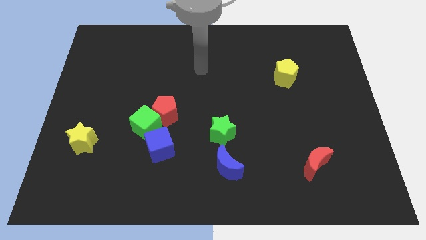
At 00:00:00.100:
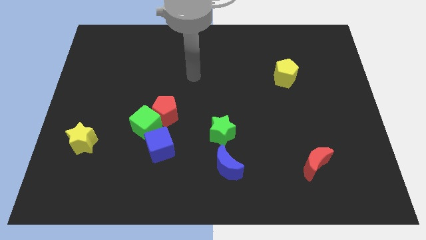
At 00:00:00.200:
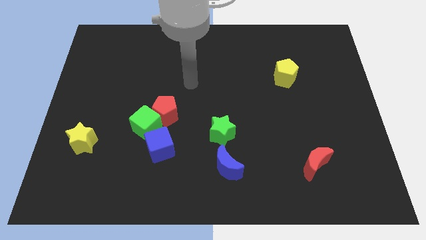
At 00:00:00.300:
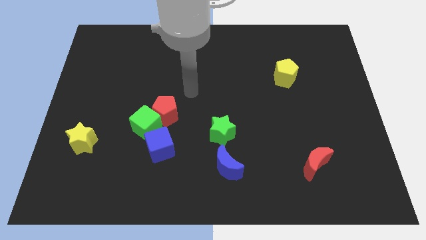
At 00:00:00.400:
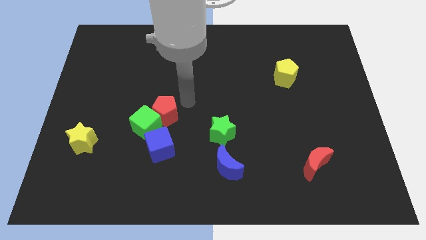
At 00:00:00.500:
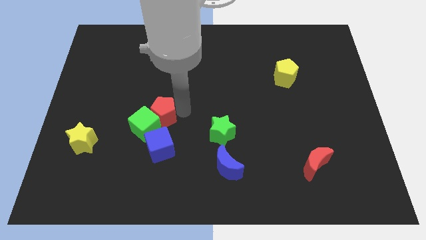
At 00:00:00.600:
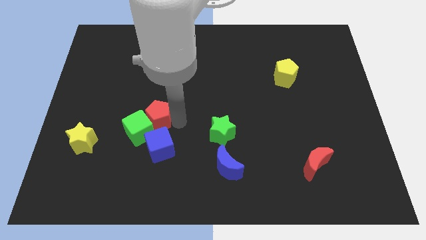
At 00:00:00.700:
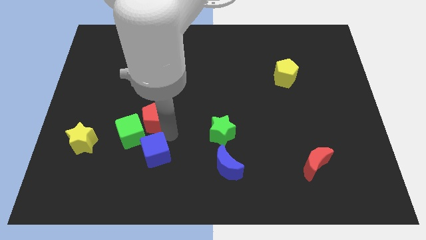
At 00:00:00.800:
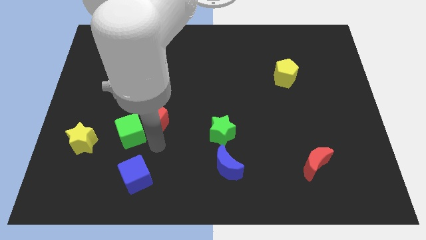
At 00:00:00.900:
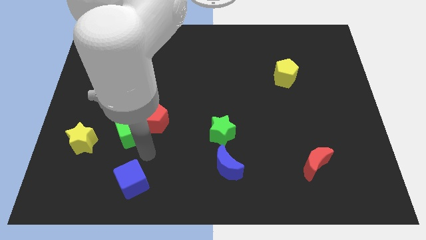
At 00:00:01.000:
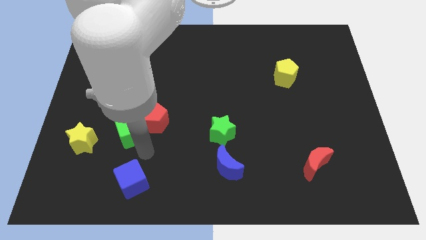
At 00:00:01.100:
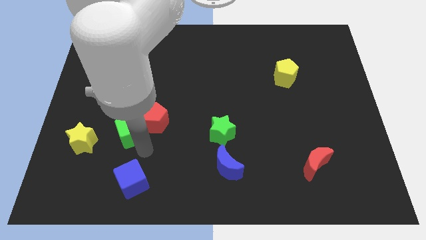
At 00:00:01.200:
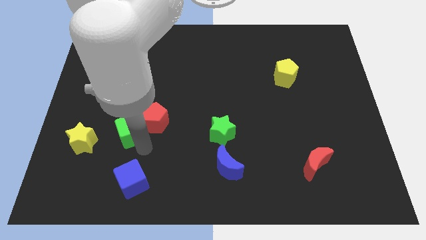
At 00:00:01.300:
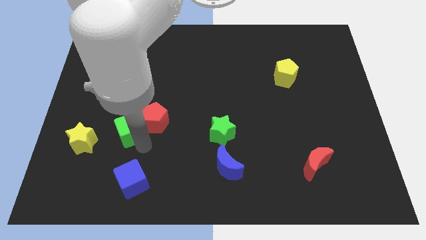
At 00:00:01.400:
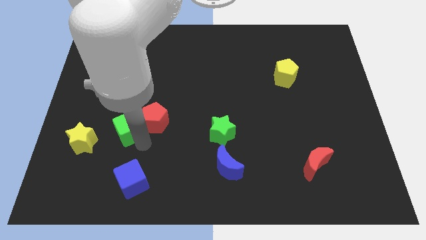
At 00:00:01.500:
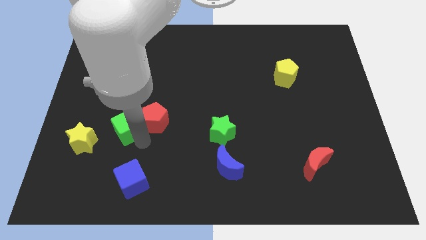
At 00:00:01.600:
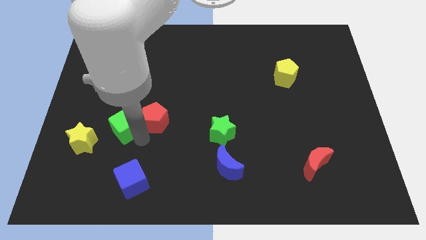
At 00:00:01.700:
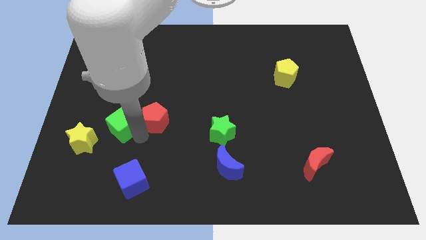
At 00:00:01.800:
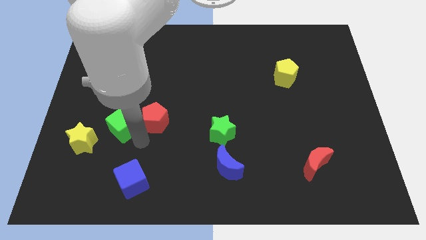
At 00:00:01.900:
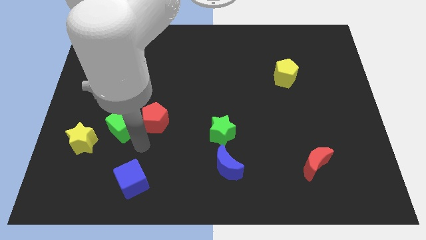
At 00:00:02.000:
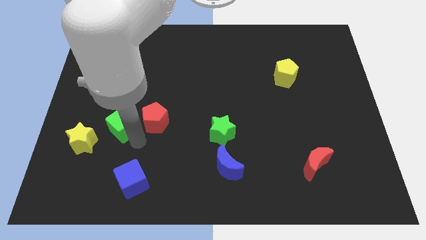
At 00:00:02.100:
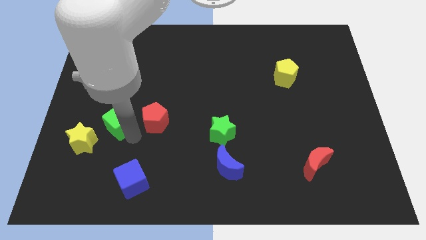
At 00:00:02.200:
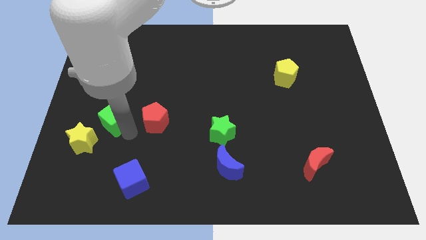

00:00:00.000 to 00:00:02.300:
move the green cube away from the red pentagon and blue cube

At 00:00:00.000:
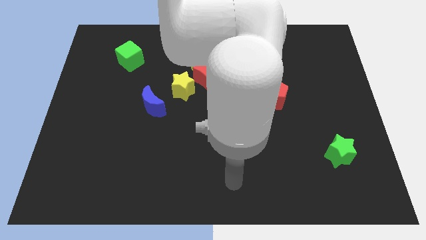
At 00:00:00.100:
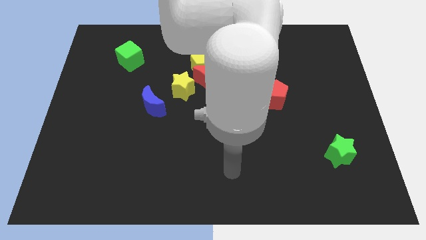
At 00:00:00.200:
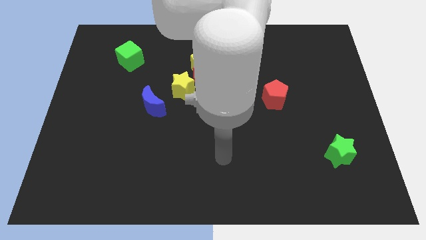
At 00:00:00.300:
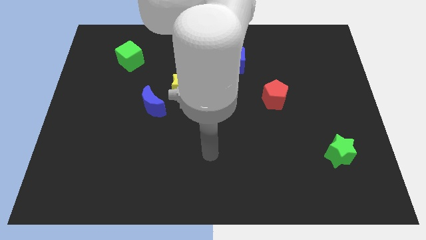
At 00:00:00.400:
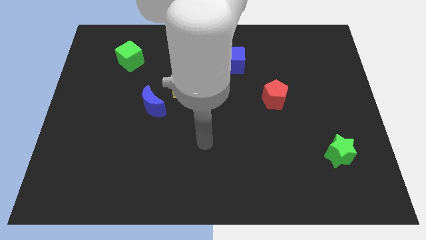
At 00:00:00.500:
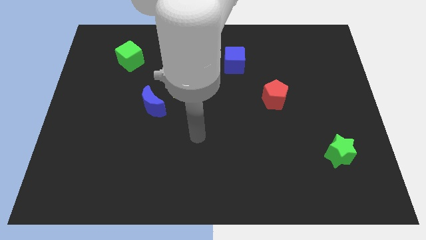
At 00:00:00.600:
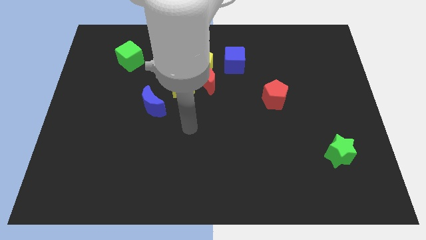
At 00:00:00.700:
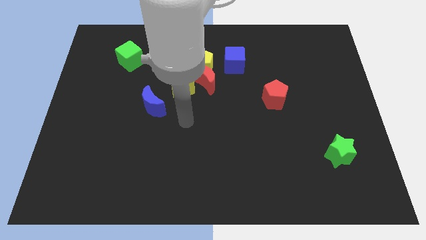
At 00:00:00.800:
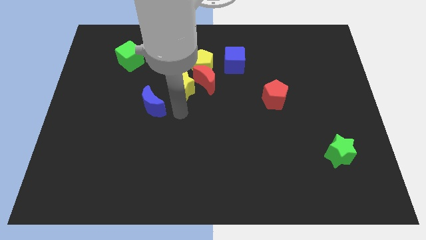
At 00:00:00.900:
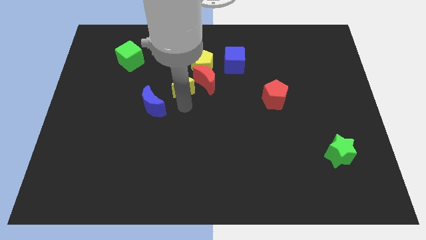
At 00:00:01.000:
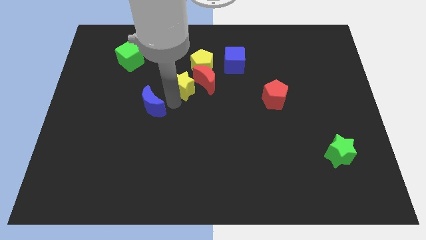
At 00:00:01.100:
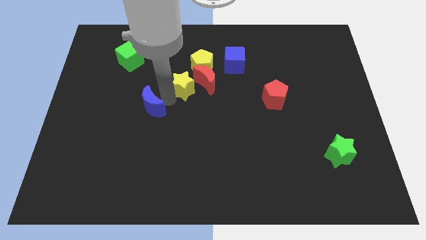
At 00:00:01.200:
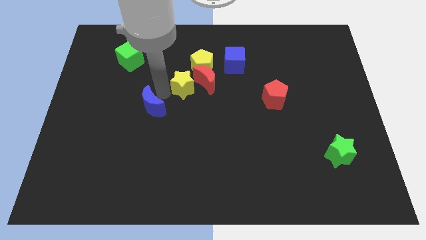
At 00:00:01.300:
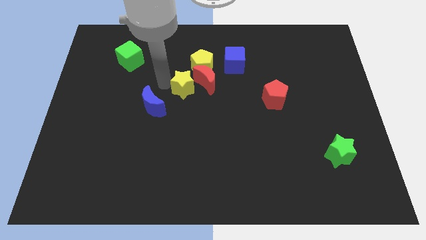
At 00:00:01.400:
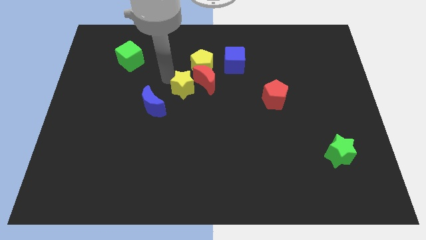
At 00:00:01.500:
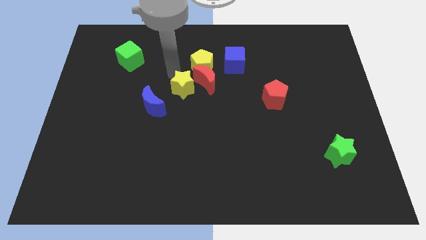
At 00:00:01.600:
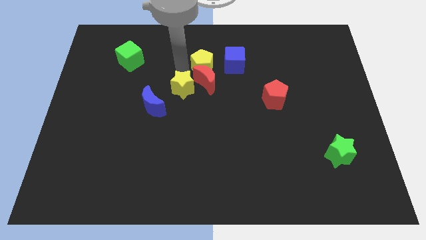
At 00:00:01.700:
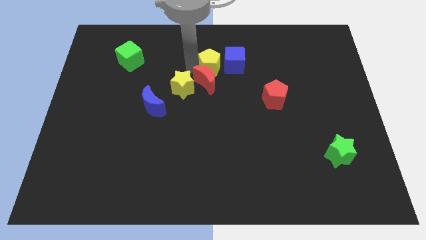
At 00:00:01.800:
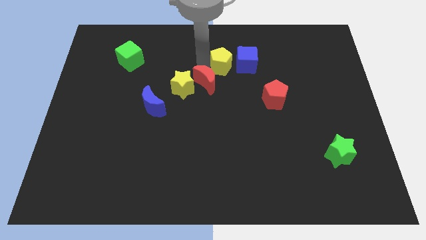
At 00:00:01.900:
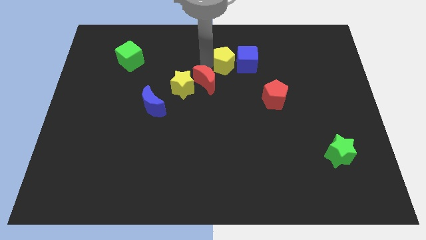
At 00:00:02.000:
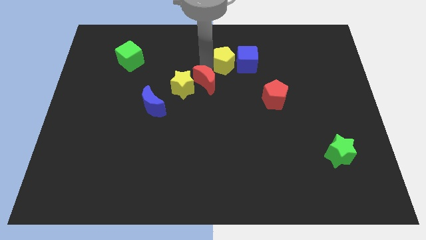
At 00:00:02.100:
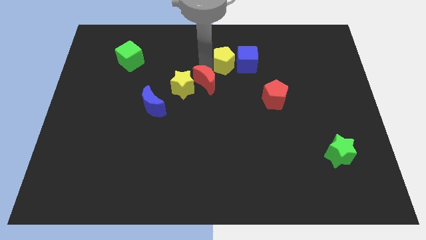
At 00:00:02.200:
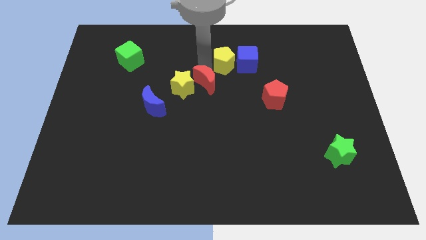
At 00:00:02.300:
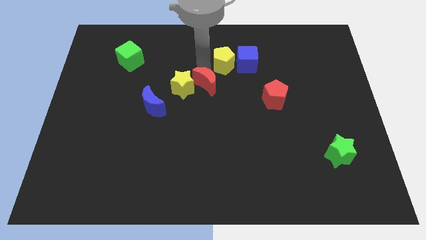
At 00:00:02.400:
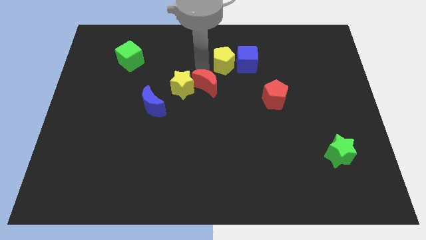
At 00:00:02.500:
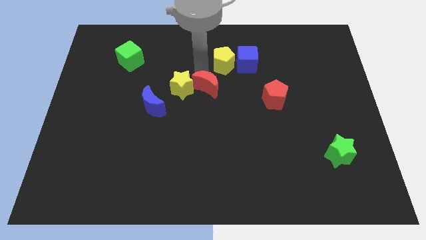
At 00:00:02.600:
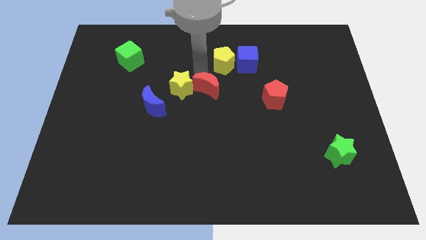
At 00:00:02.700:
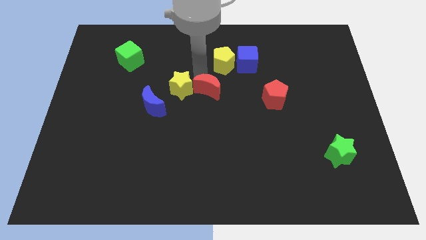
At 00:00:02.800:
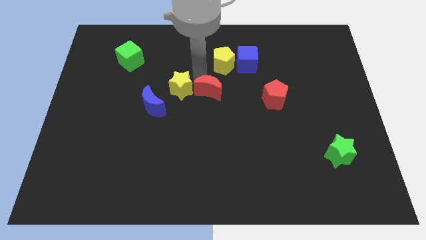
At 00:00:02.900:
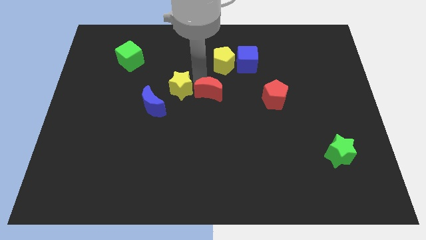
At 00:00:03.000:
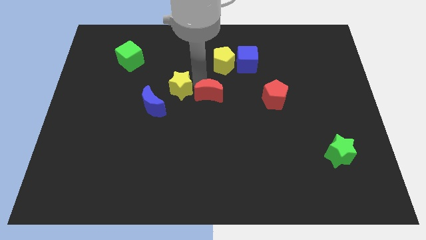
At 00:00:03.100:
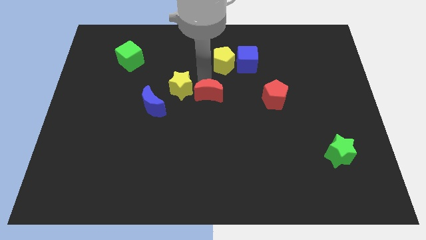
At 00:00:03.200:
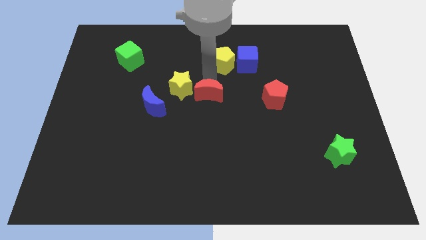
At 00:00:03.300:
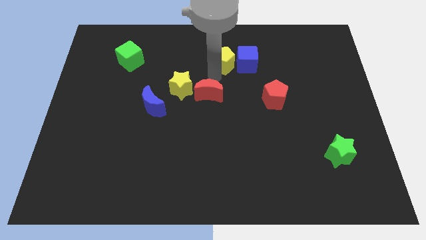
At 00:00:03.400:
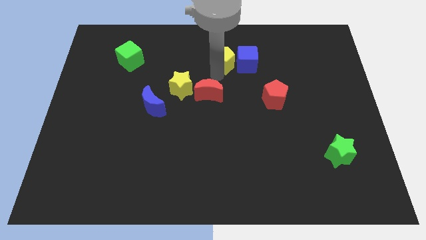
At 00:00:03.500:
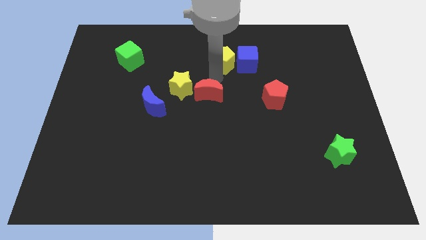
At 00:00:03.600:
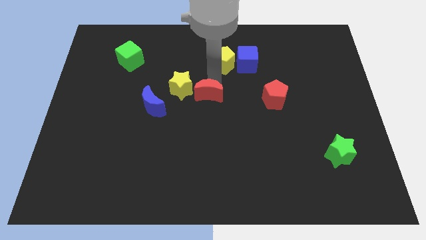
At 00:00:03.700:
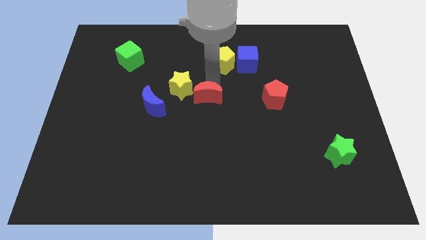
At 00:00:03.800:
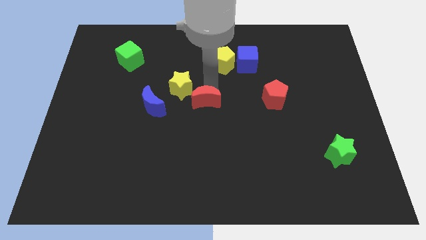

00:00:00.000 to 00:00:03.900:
separate the red moon from the yellow pentagon, yellow star, and blue cube

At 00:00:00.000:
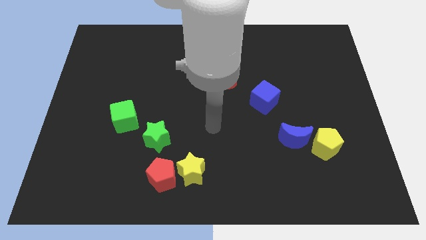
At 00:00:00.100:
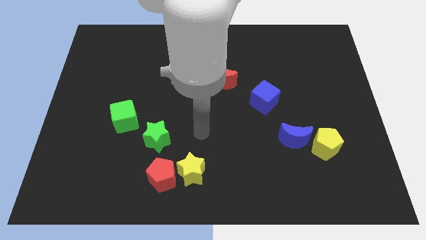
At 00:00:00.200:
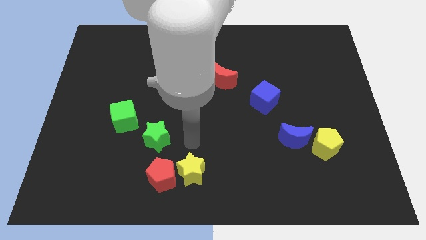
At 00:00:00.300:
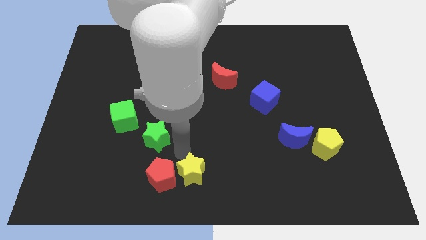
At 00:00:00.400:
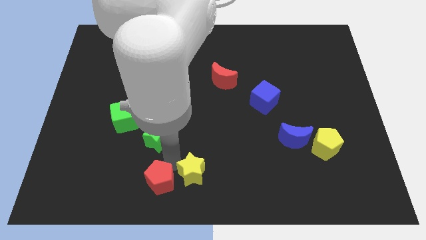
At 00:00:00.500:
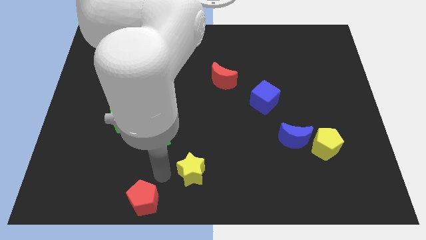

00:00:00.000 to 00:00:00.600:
move the yellow star away from the red pentagon

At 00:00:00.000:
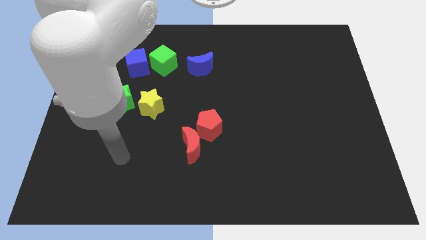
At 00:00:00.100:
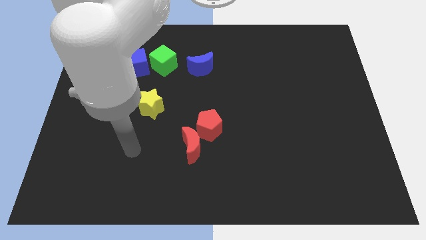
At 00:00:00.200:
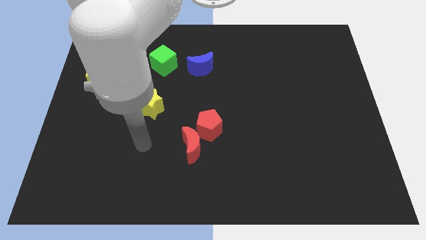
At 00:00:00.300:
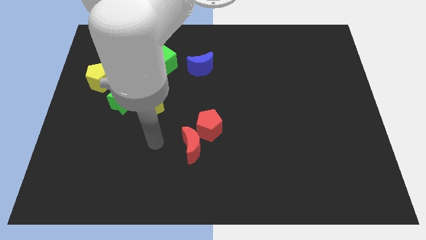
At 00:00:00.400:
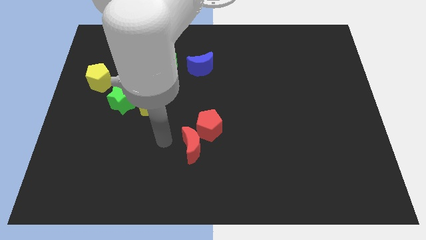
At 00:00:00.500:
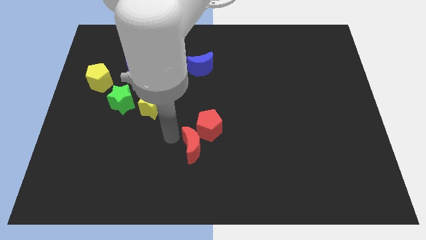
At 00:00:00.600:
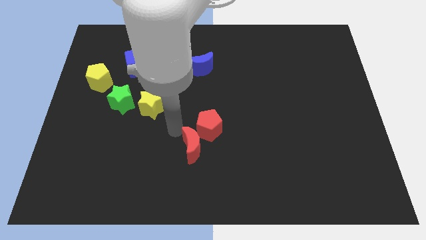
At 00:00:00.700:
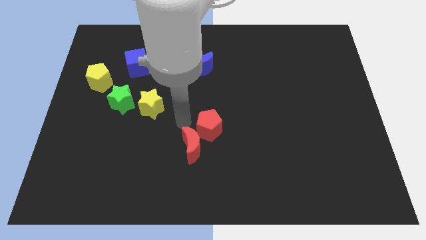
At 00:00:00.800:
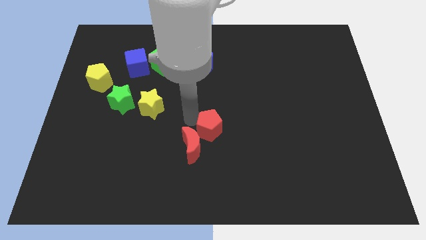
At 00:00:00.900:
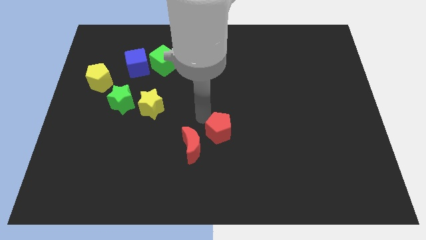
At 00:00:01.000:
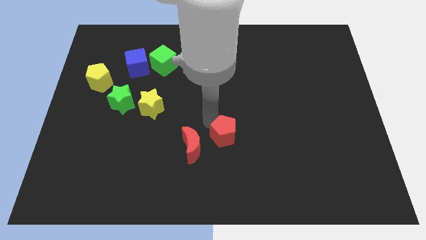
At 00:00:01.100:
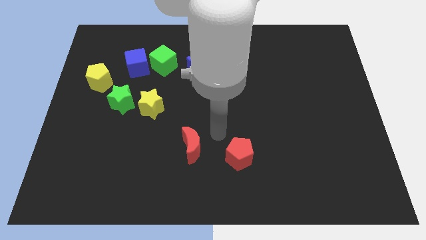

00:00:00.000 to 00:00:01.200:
separate the red moon from the red pentagon

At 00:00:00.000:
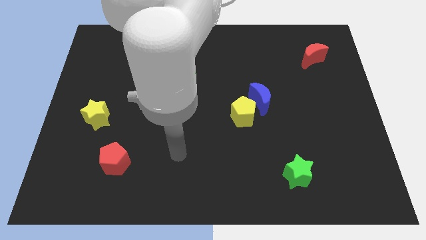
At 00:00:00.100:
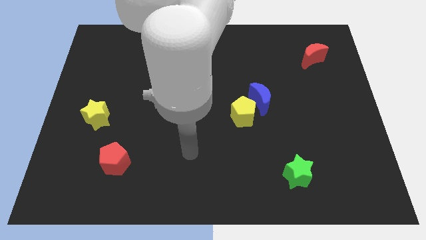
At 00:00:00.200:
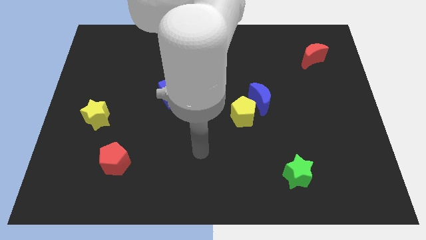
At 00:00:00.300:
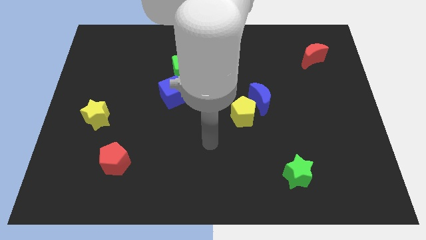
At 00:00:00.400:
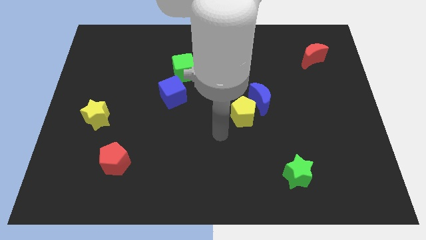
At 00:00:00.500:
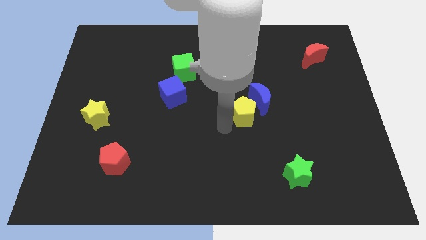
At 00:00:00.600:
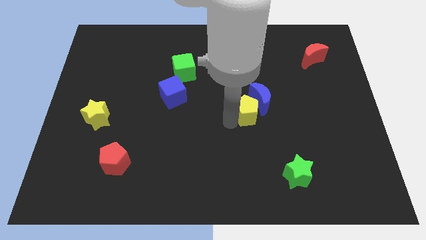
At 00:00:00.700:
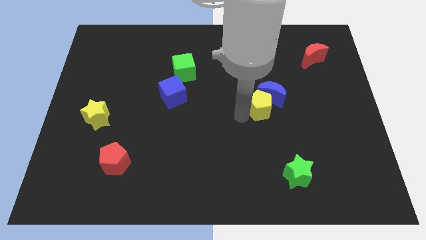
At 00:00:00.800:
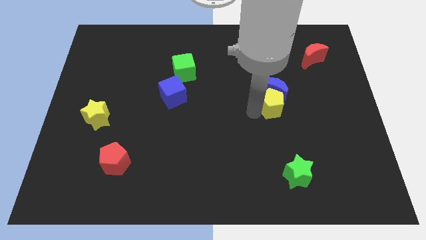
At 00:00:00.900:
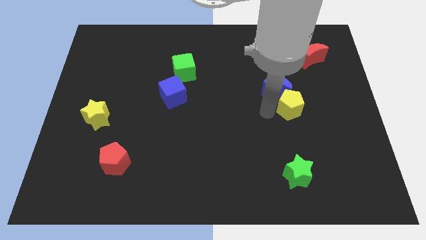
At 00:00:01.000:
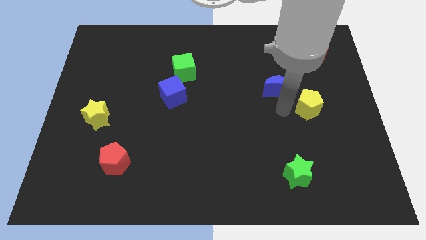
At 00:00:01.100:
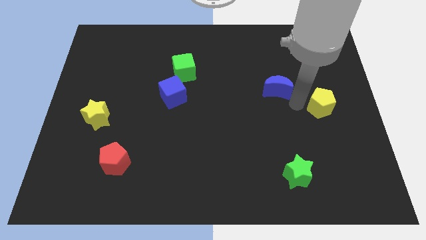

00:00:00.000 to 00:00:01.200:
move the blue moon away from the yellow pentagon

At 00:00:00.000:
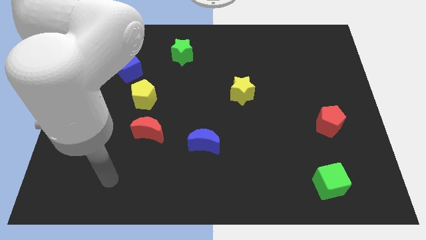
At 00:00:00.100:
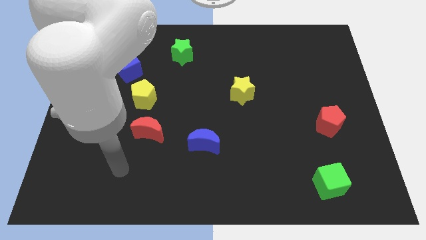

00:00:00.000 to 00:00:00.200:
move the red moon away from the yellow pentagon
